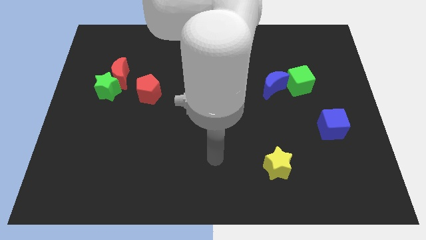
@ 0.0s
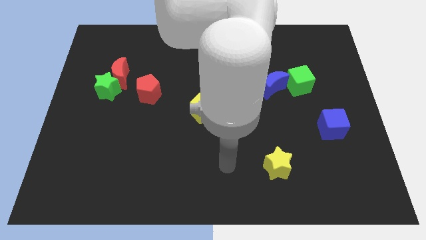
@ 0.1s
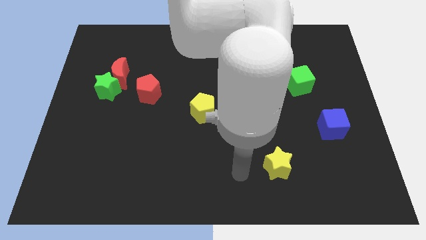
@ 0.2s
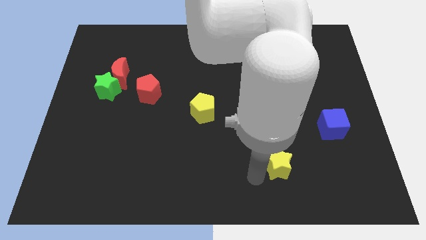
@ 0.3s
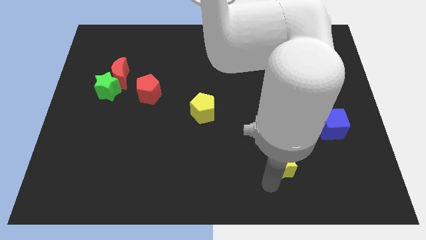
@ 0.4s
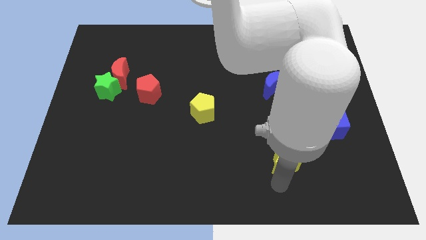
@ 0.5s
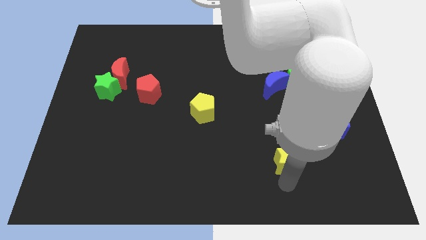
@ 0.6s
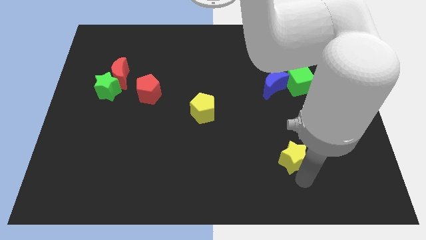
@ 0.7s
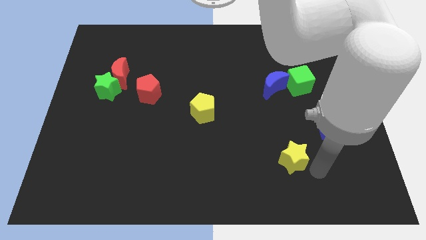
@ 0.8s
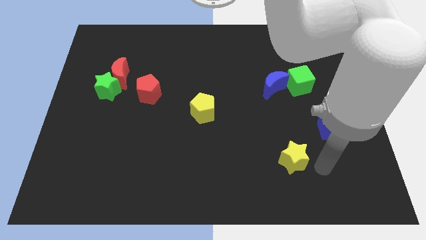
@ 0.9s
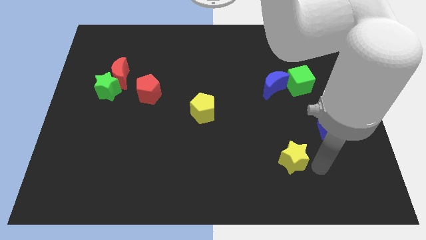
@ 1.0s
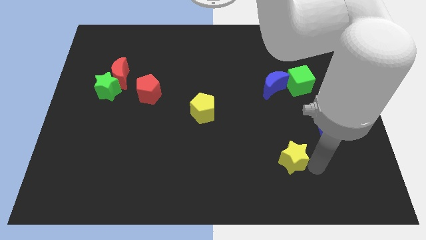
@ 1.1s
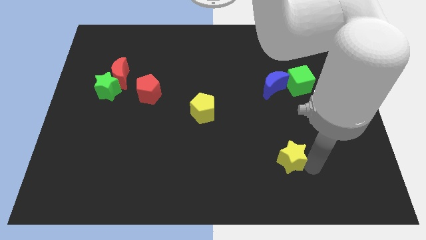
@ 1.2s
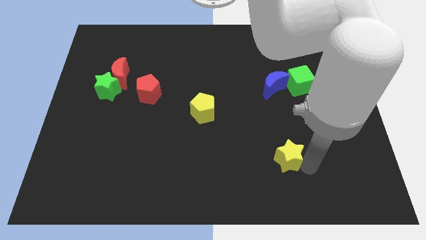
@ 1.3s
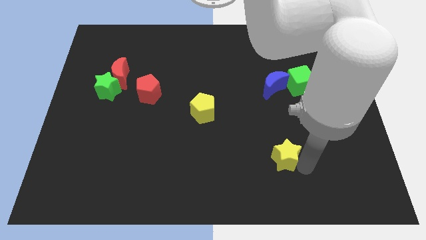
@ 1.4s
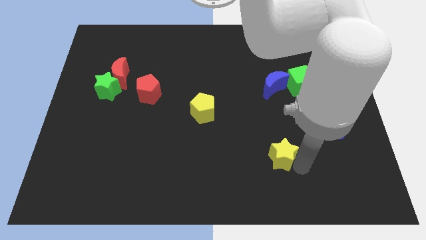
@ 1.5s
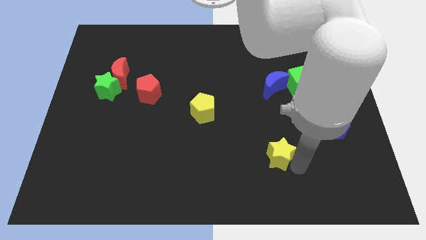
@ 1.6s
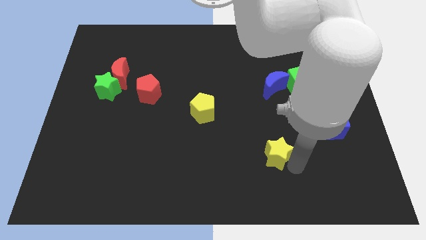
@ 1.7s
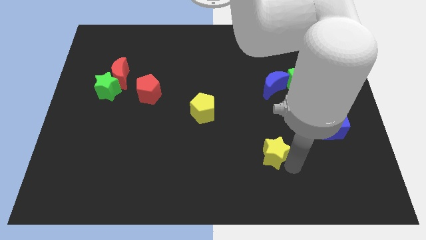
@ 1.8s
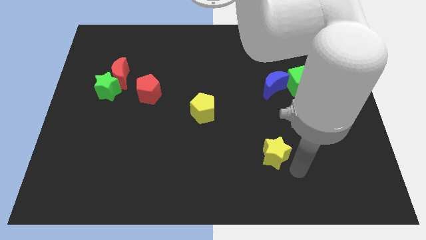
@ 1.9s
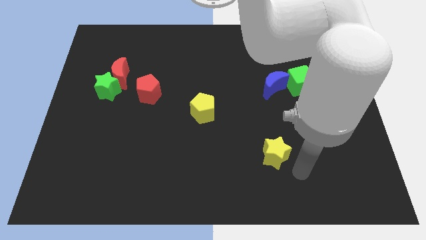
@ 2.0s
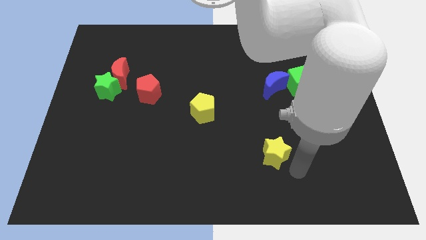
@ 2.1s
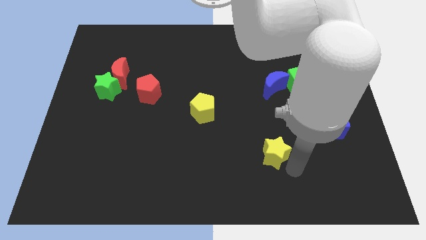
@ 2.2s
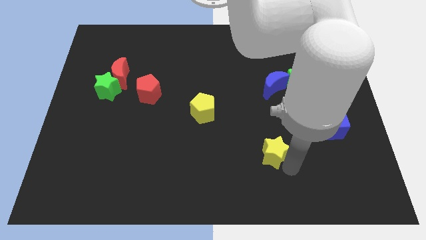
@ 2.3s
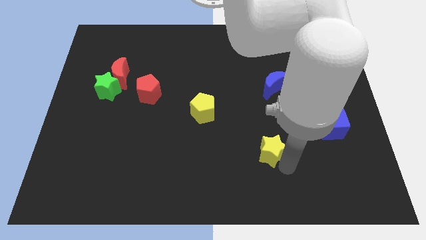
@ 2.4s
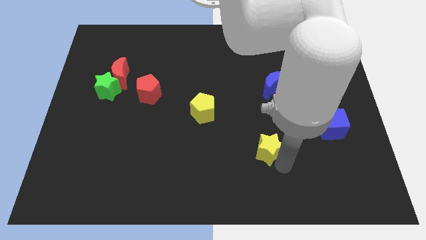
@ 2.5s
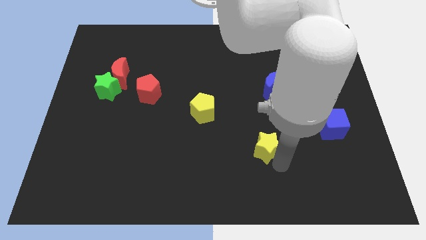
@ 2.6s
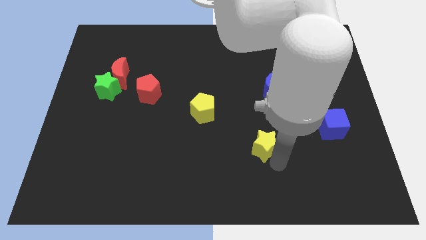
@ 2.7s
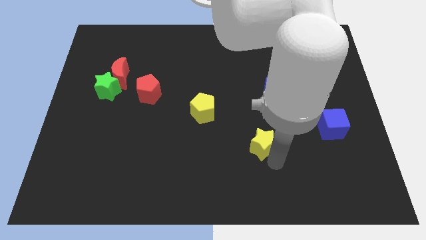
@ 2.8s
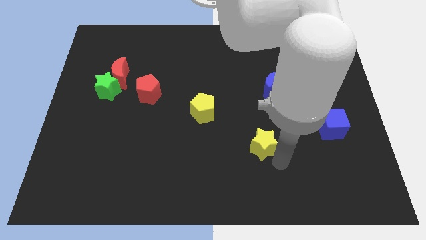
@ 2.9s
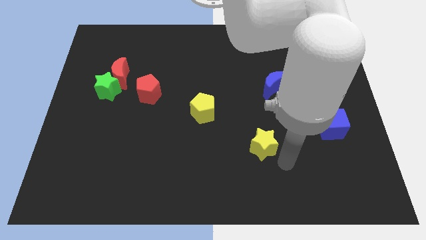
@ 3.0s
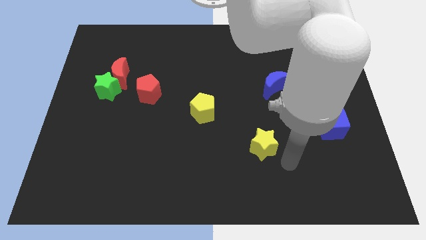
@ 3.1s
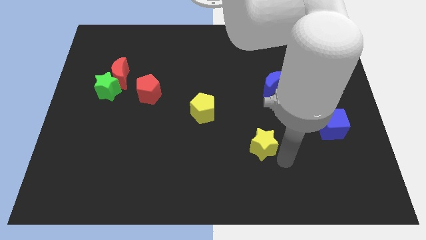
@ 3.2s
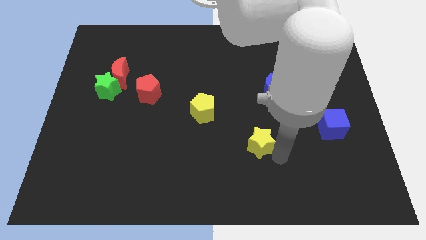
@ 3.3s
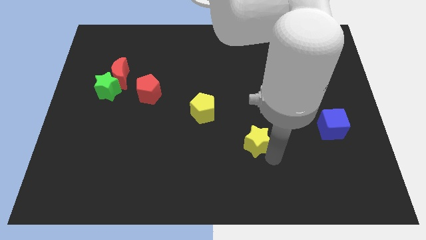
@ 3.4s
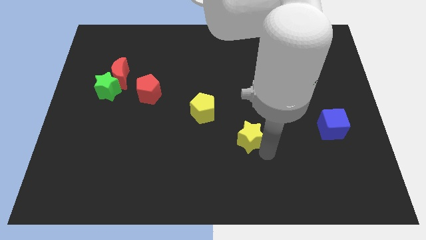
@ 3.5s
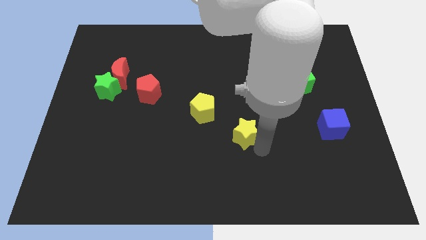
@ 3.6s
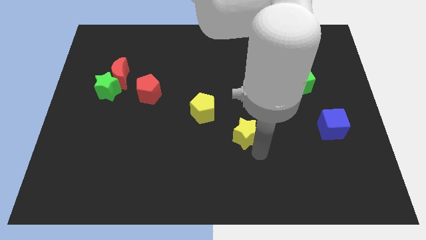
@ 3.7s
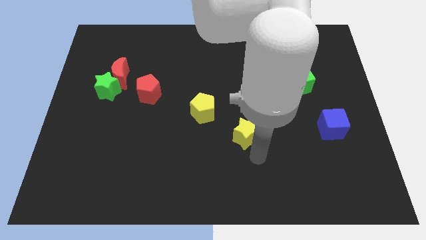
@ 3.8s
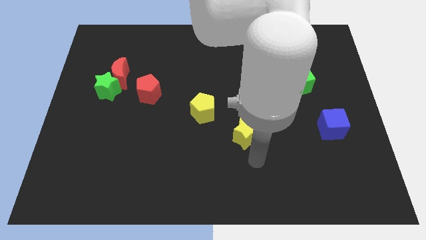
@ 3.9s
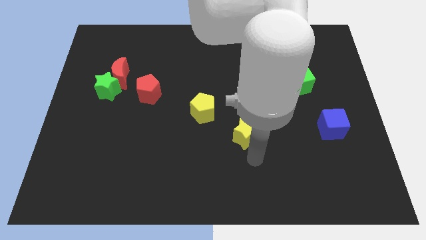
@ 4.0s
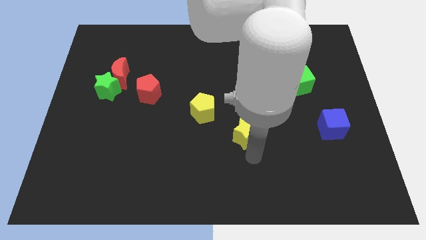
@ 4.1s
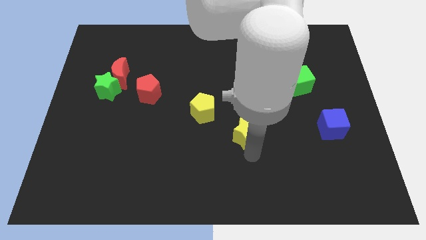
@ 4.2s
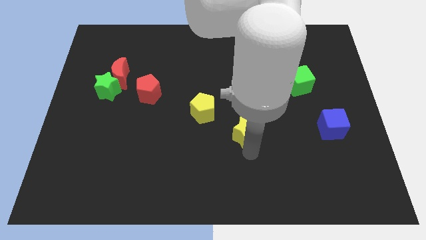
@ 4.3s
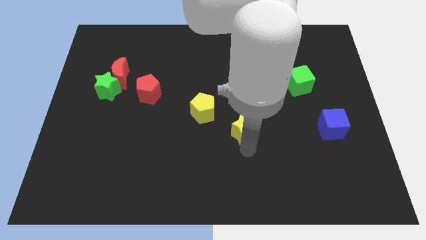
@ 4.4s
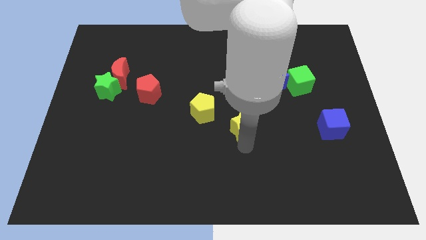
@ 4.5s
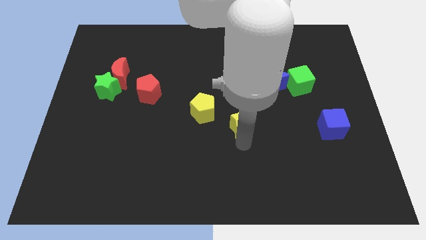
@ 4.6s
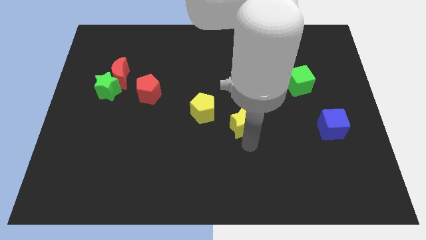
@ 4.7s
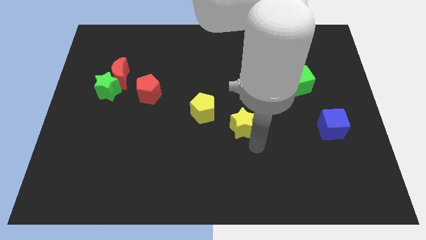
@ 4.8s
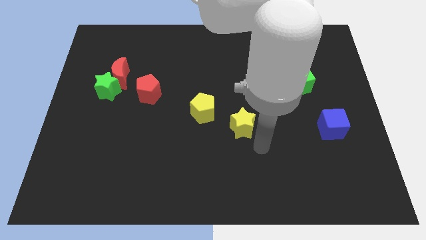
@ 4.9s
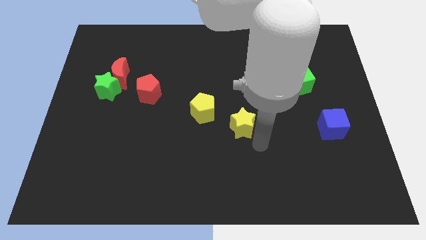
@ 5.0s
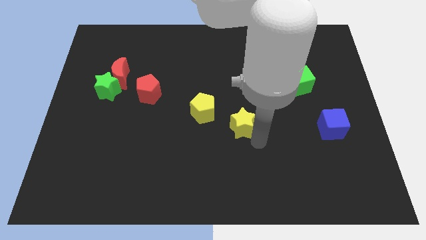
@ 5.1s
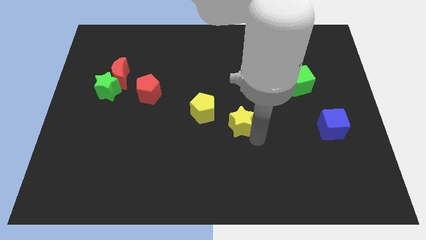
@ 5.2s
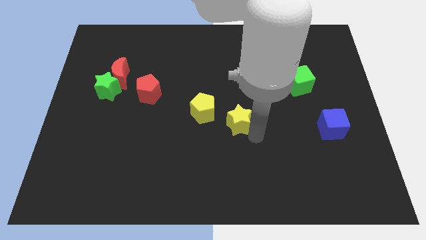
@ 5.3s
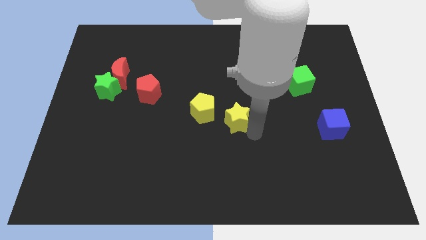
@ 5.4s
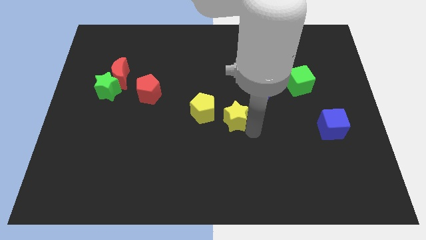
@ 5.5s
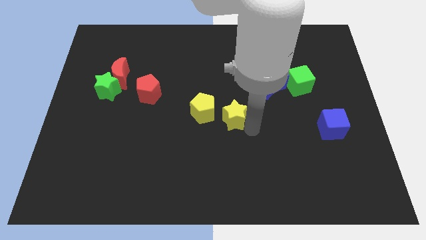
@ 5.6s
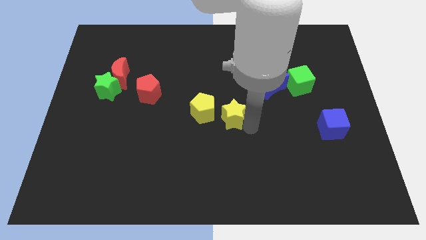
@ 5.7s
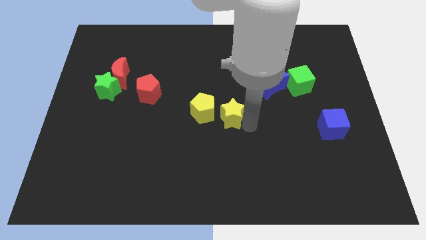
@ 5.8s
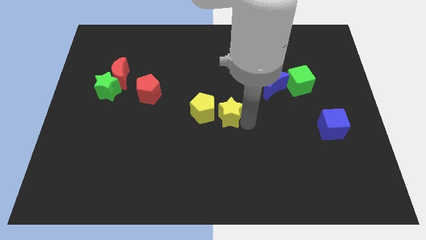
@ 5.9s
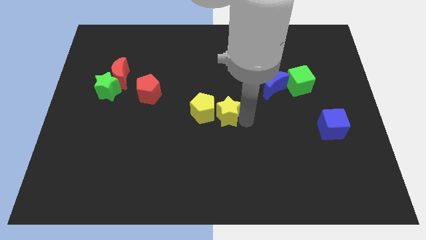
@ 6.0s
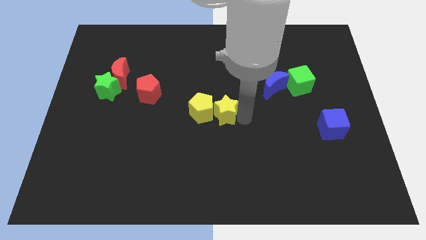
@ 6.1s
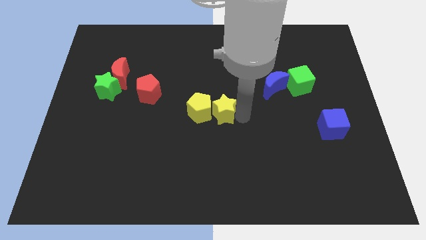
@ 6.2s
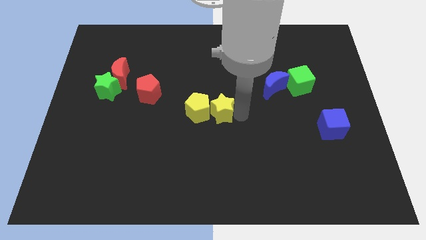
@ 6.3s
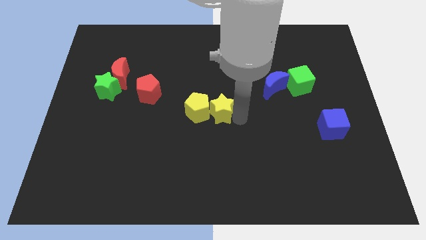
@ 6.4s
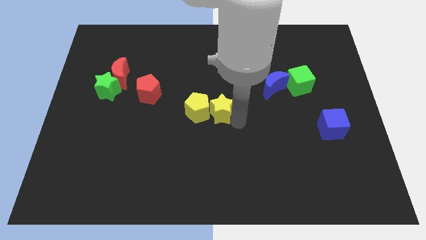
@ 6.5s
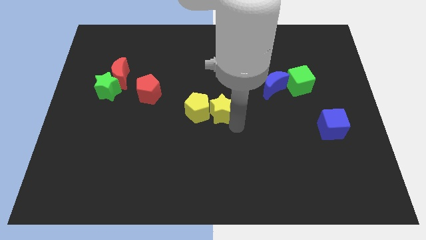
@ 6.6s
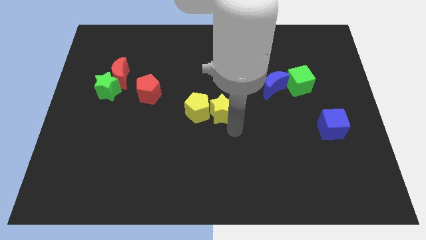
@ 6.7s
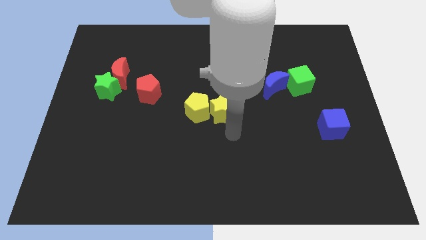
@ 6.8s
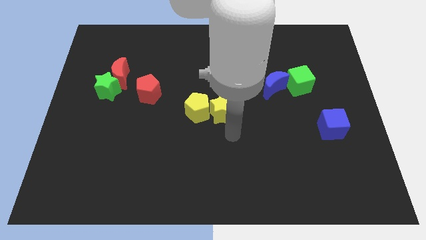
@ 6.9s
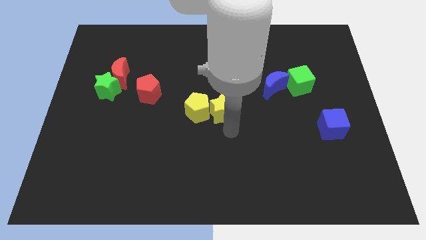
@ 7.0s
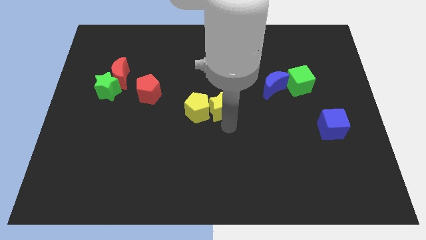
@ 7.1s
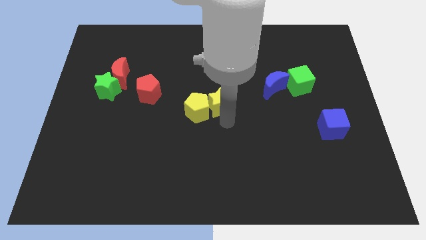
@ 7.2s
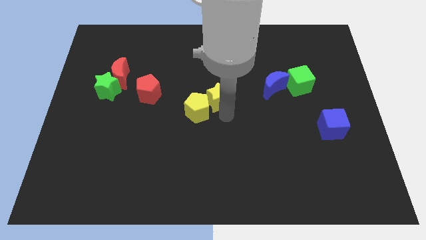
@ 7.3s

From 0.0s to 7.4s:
push the yellow star upwards and then to the left
